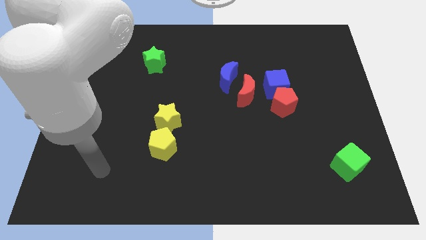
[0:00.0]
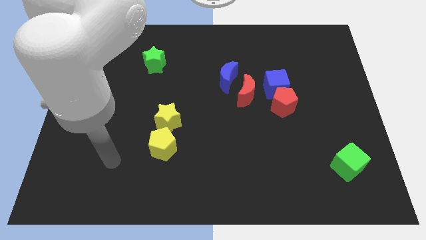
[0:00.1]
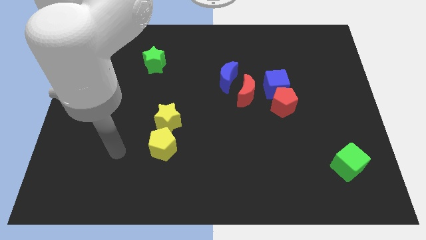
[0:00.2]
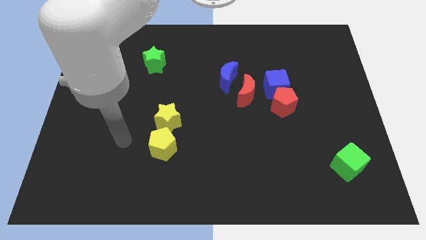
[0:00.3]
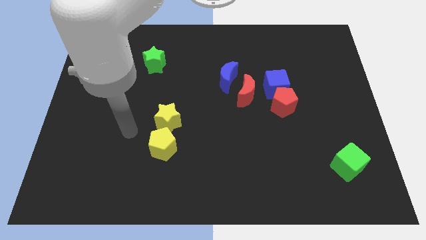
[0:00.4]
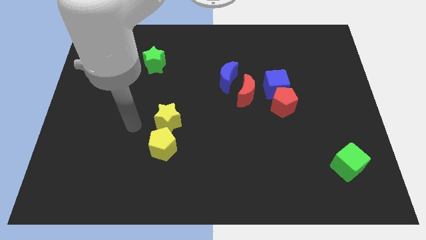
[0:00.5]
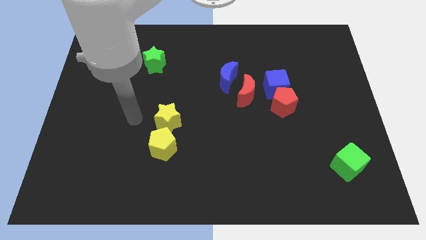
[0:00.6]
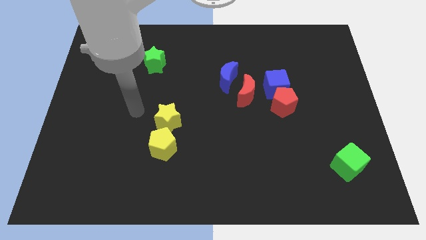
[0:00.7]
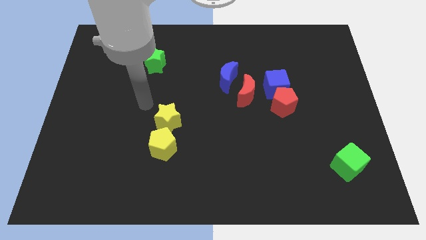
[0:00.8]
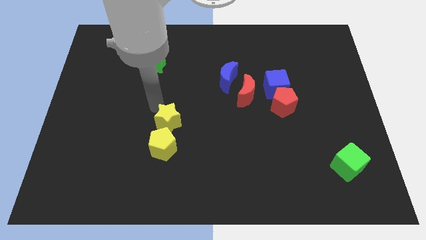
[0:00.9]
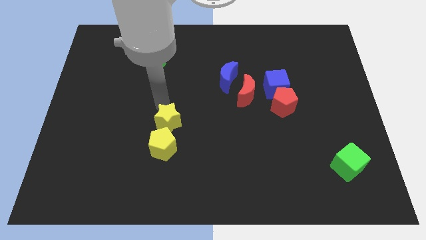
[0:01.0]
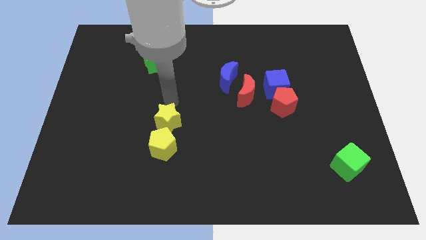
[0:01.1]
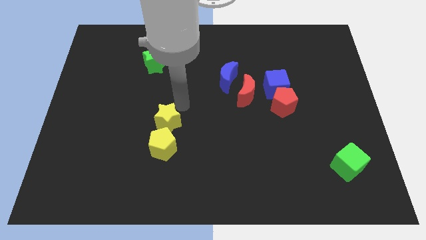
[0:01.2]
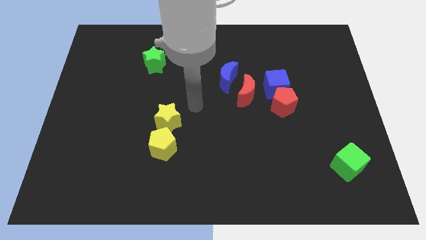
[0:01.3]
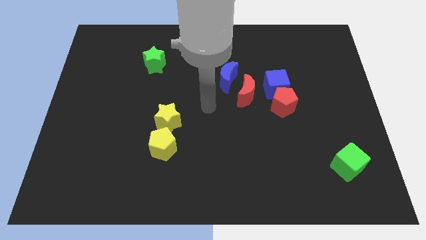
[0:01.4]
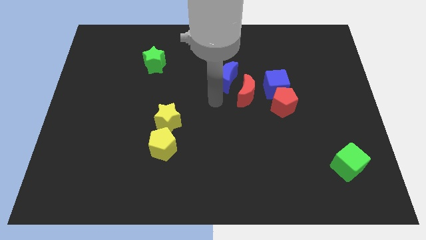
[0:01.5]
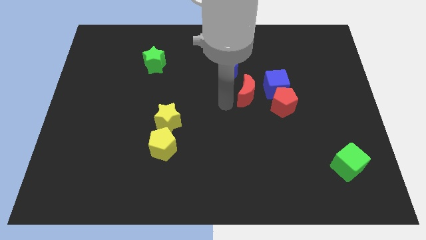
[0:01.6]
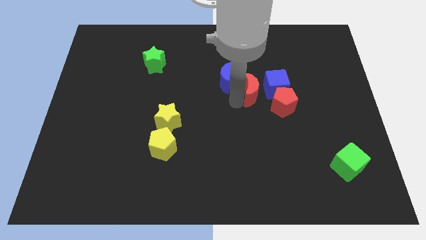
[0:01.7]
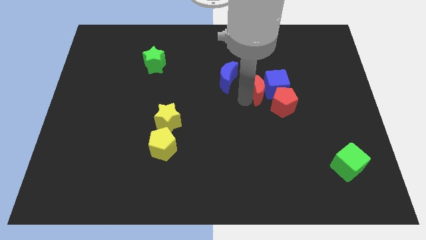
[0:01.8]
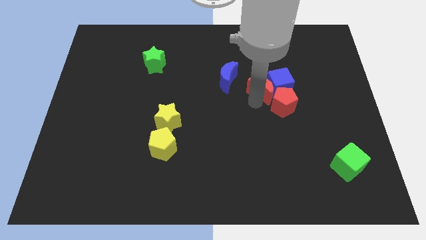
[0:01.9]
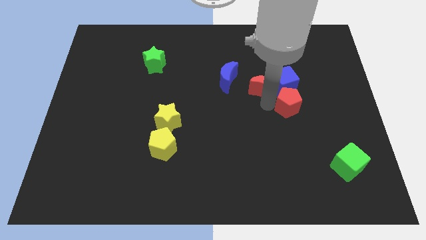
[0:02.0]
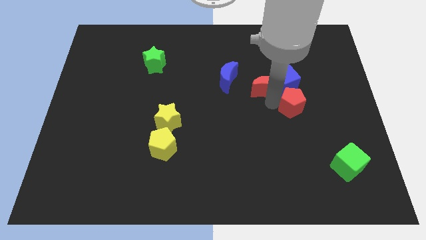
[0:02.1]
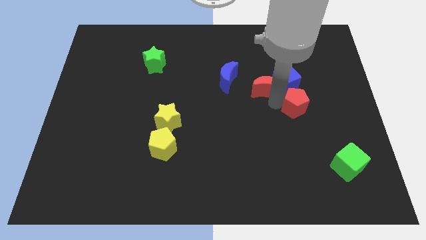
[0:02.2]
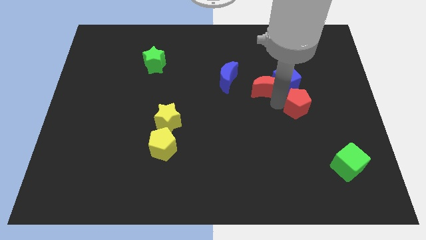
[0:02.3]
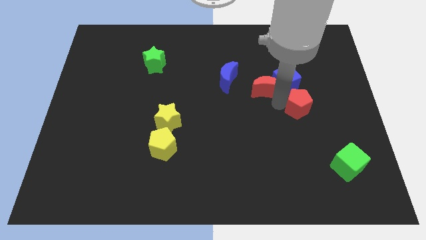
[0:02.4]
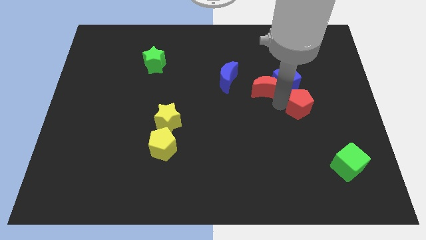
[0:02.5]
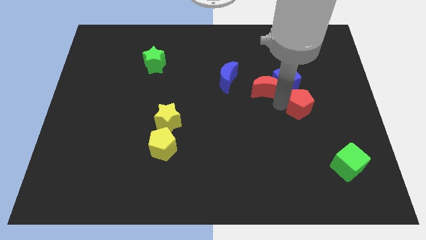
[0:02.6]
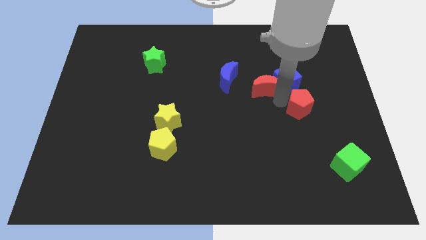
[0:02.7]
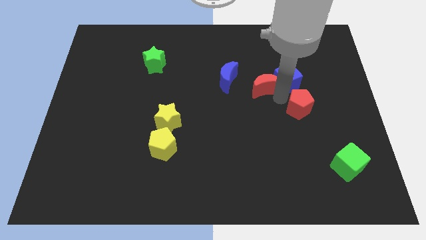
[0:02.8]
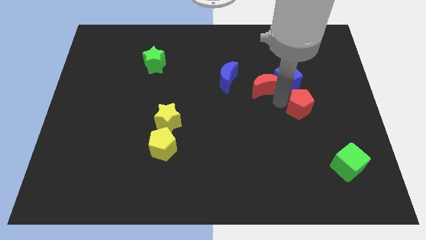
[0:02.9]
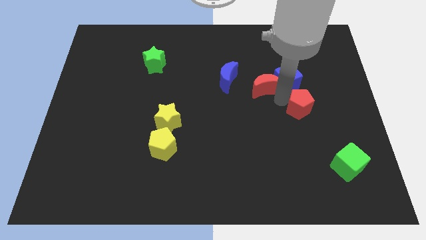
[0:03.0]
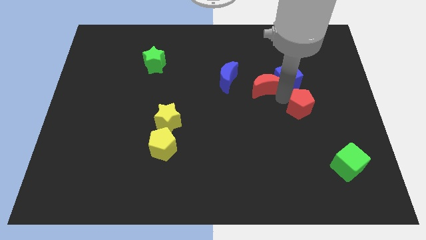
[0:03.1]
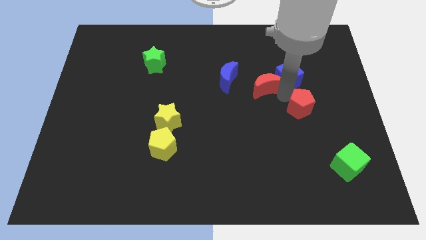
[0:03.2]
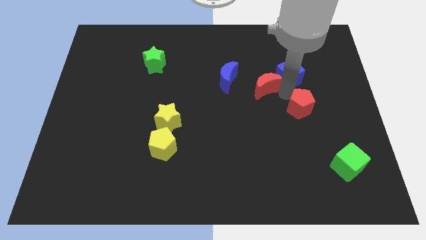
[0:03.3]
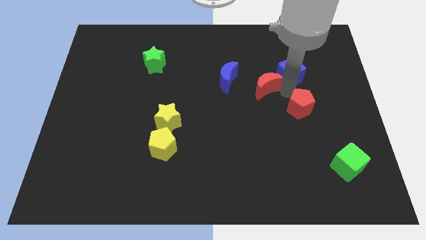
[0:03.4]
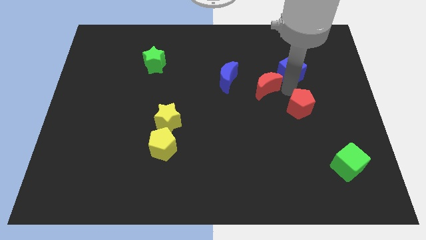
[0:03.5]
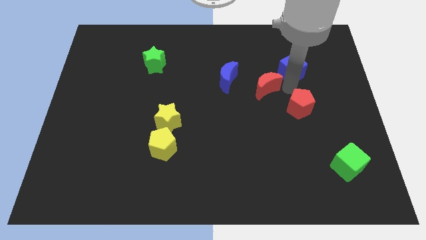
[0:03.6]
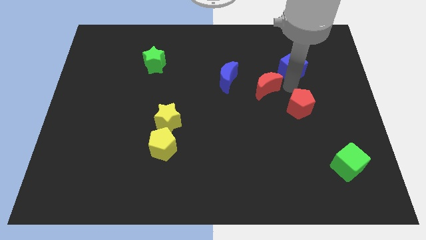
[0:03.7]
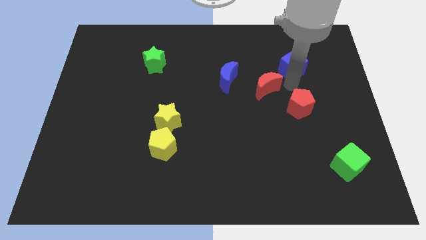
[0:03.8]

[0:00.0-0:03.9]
pull the blue cube apart from the red pentagon and red moon

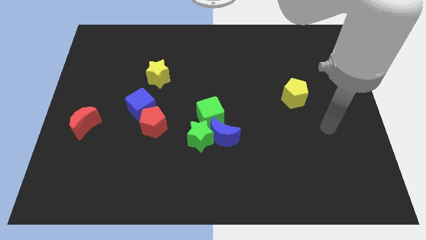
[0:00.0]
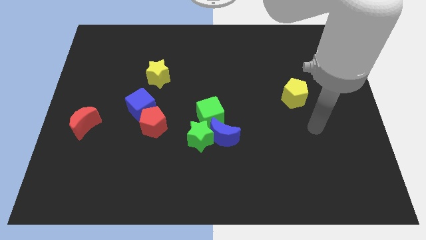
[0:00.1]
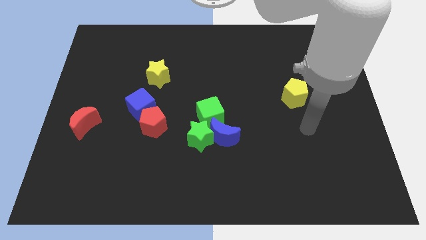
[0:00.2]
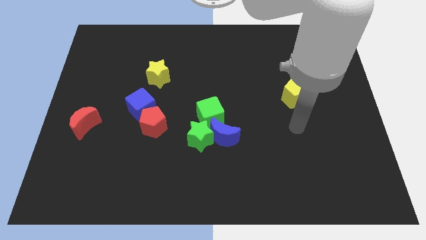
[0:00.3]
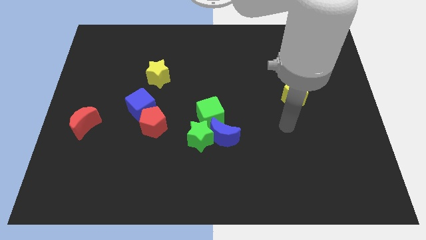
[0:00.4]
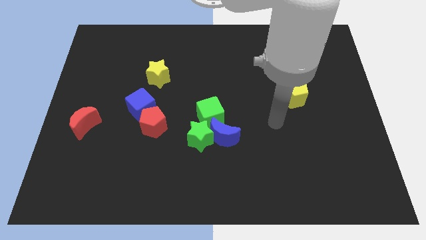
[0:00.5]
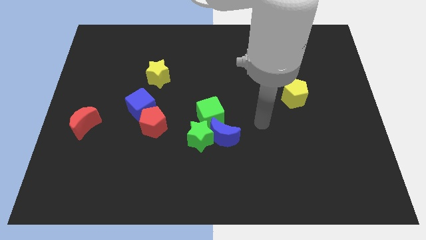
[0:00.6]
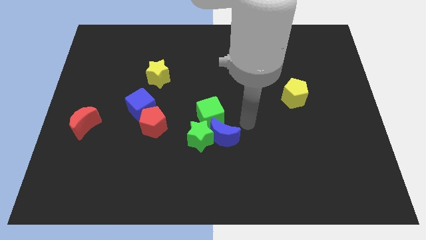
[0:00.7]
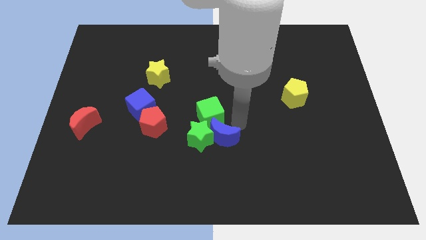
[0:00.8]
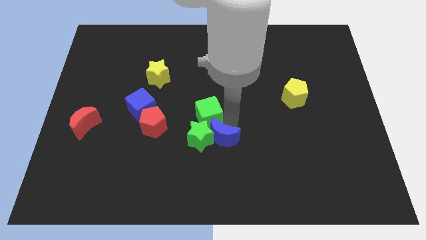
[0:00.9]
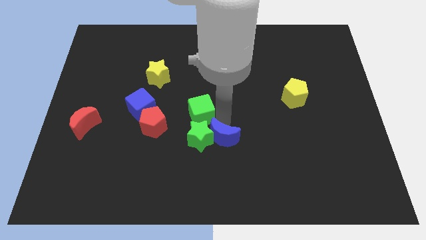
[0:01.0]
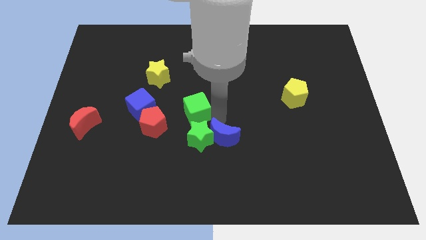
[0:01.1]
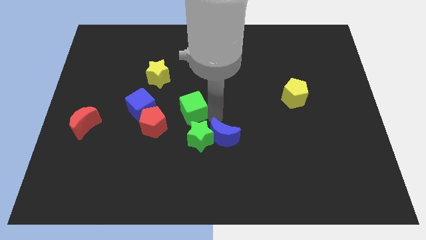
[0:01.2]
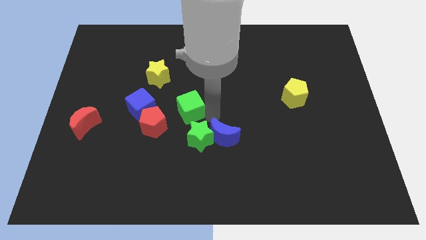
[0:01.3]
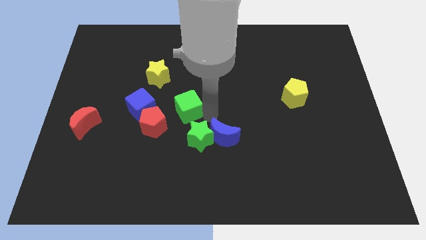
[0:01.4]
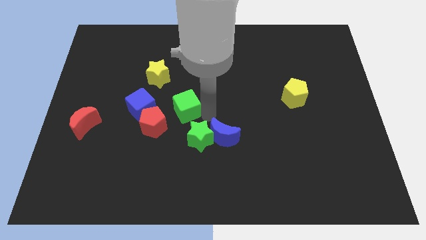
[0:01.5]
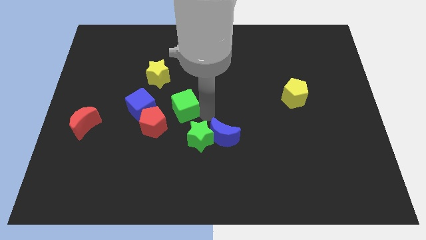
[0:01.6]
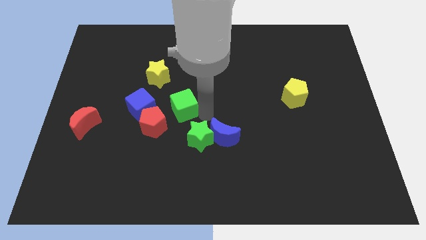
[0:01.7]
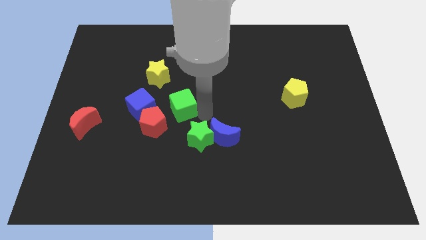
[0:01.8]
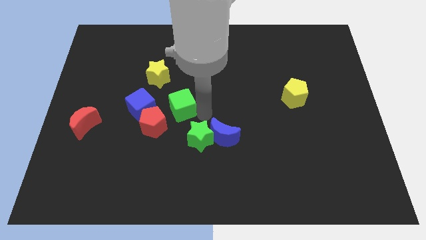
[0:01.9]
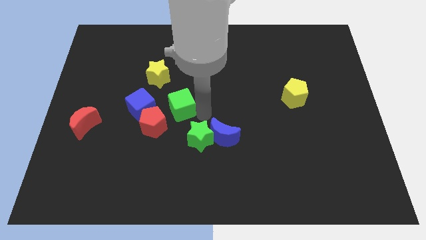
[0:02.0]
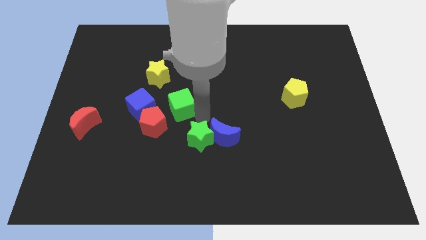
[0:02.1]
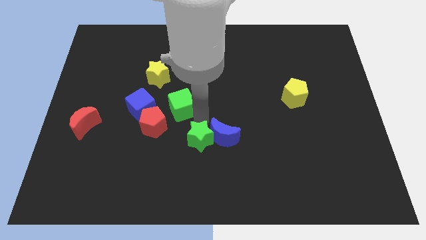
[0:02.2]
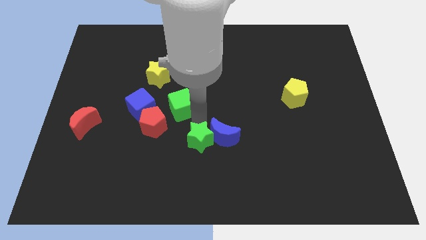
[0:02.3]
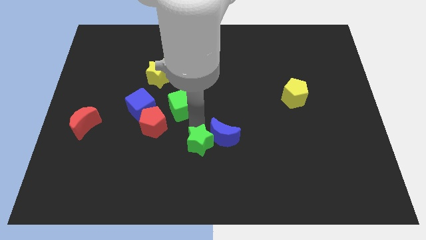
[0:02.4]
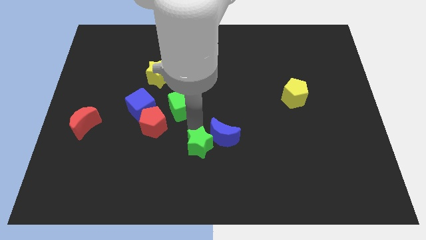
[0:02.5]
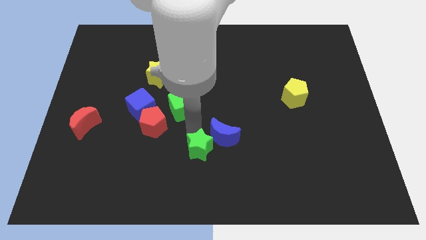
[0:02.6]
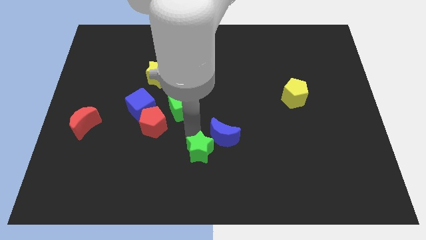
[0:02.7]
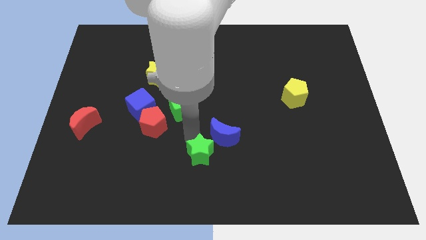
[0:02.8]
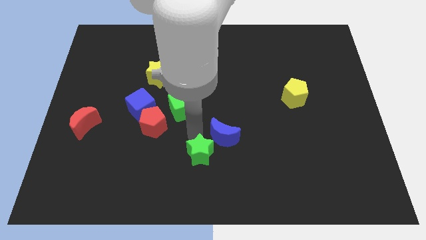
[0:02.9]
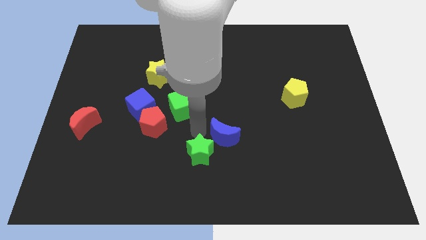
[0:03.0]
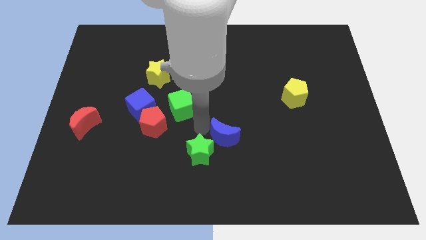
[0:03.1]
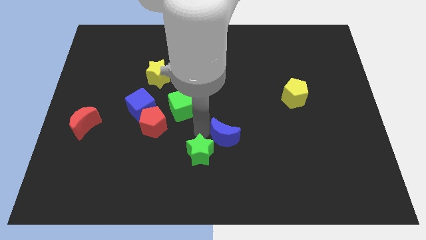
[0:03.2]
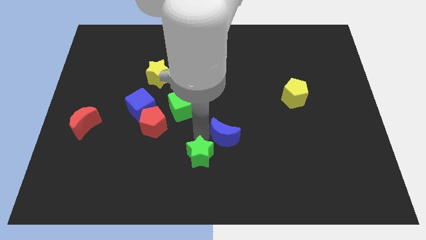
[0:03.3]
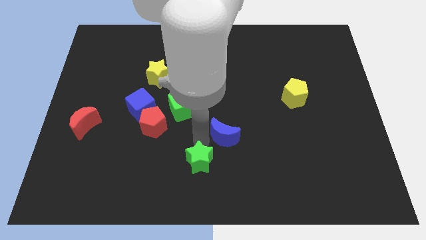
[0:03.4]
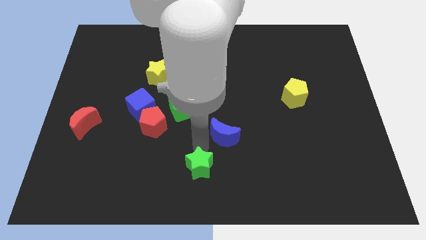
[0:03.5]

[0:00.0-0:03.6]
separate the green star from the blue moon and green cube

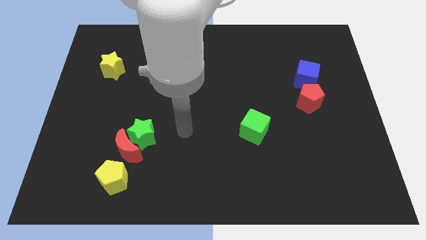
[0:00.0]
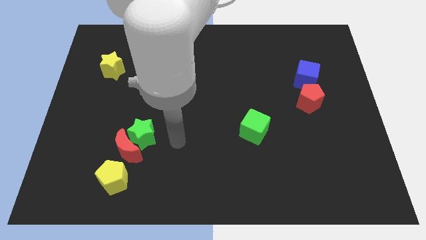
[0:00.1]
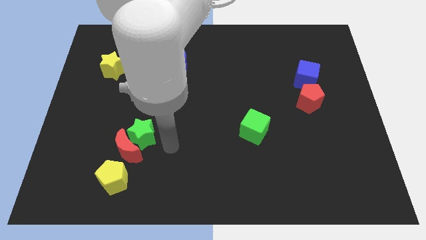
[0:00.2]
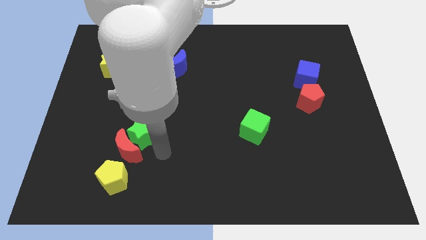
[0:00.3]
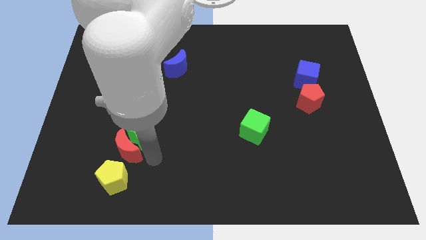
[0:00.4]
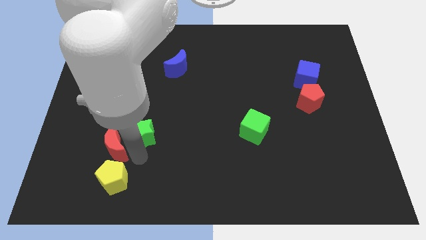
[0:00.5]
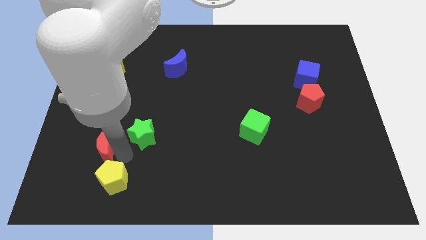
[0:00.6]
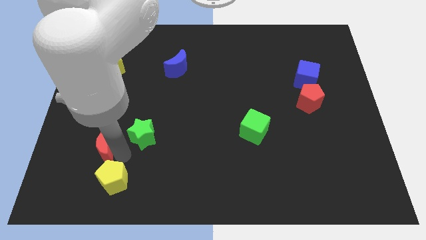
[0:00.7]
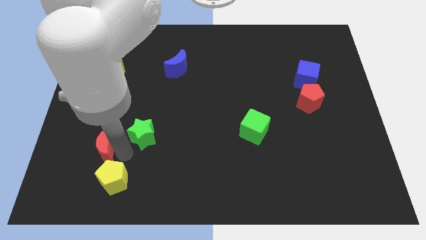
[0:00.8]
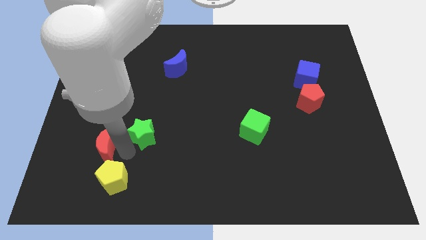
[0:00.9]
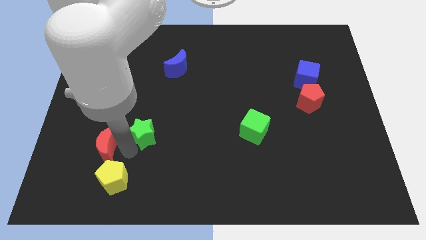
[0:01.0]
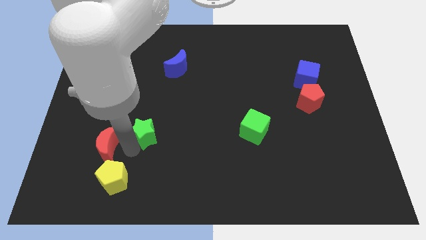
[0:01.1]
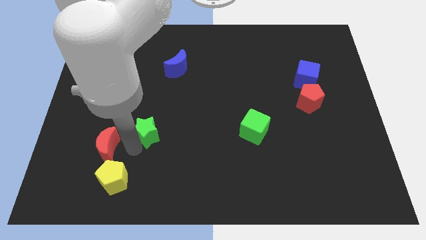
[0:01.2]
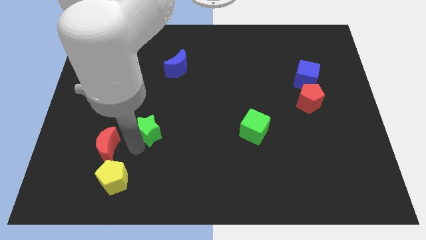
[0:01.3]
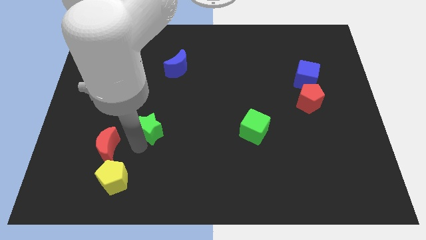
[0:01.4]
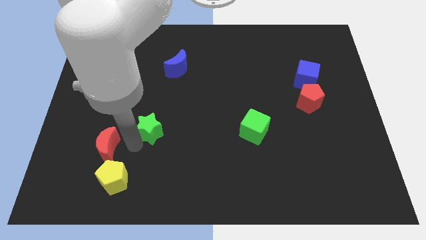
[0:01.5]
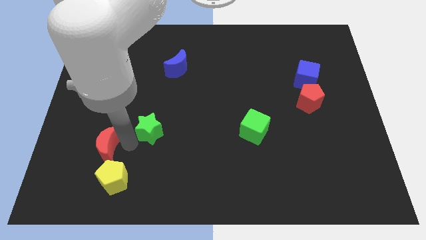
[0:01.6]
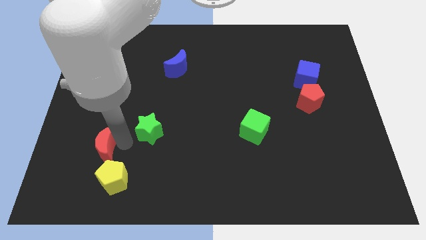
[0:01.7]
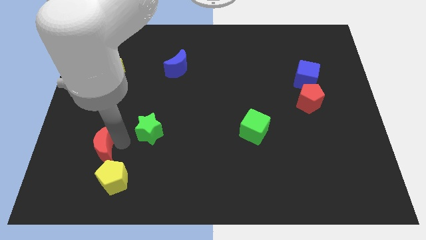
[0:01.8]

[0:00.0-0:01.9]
pull the green star apart from the red moon
